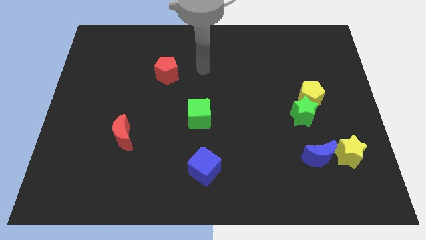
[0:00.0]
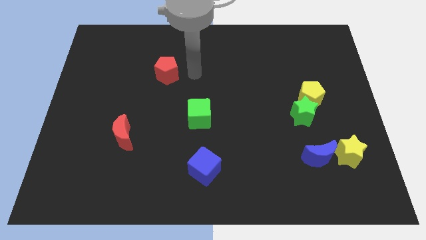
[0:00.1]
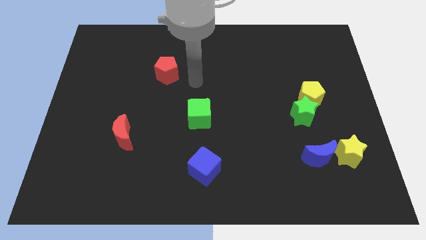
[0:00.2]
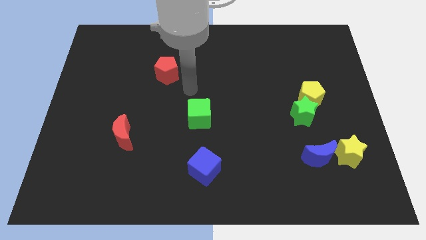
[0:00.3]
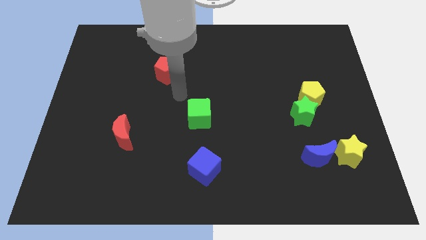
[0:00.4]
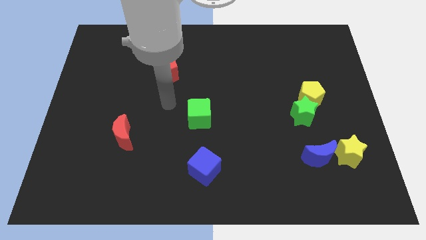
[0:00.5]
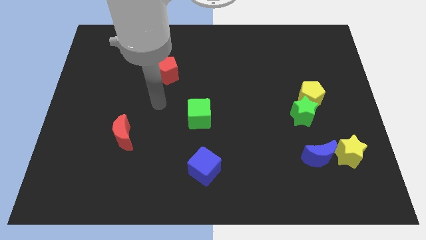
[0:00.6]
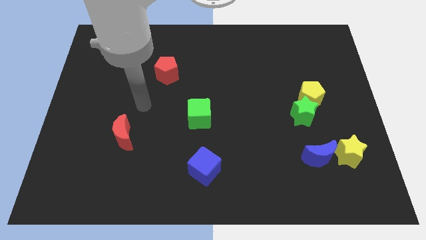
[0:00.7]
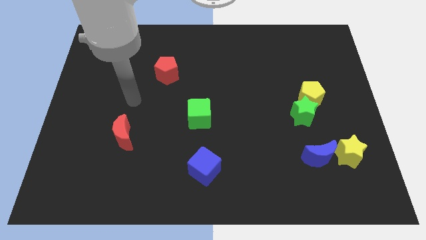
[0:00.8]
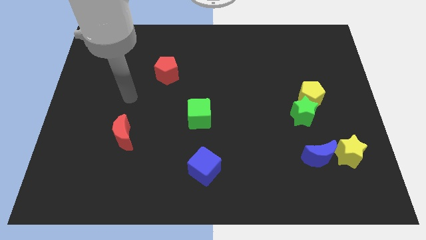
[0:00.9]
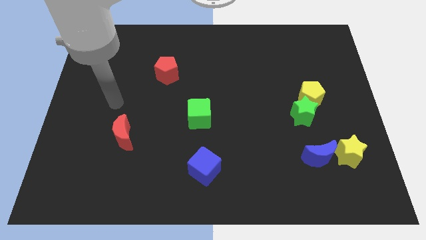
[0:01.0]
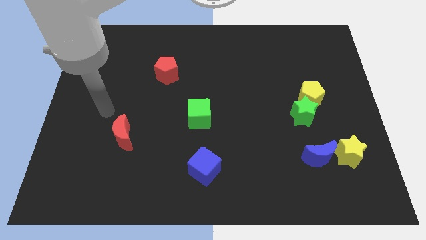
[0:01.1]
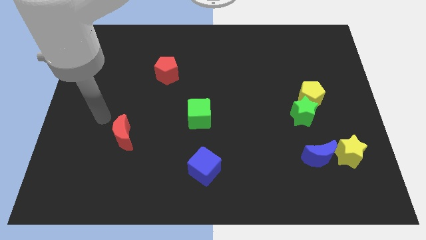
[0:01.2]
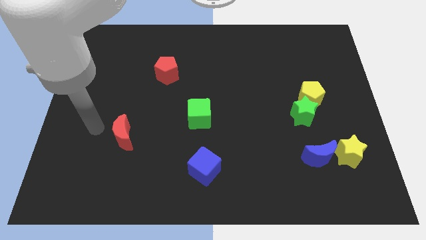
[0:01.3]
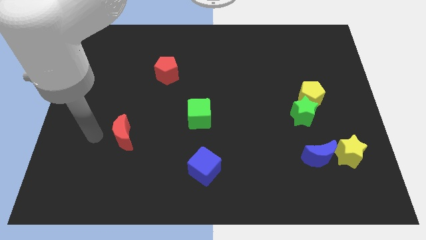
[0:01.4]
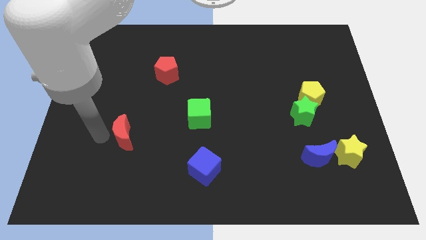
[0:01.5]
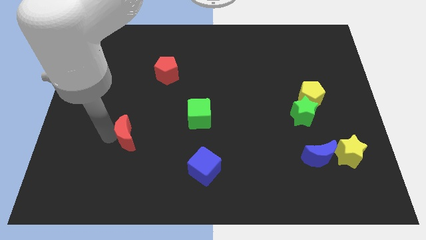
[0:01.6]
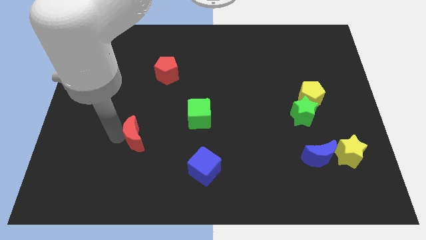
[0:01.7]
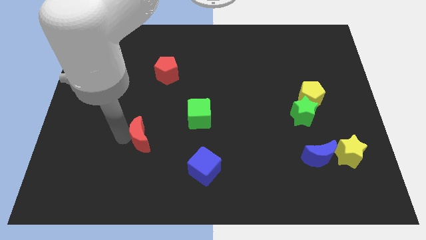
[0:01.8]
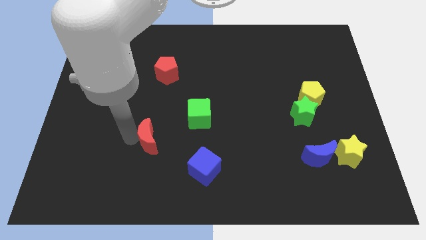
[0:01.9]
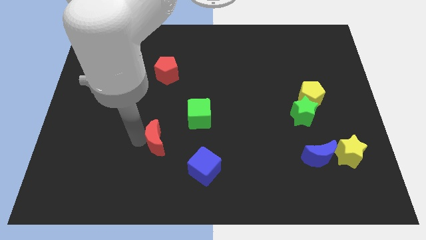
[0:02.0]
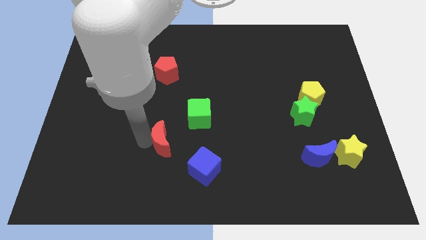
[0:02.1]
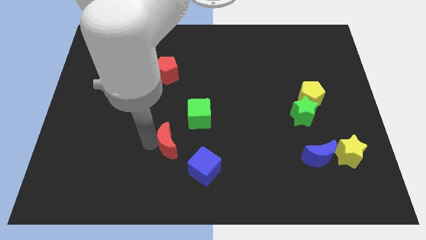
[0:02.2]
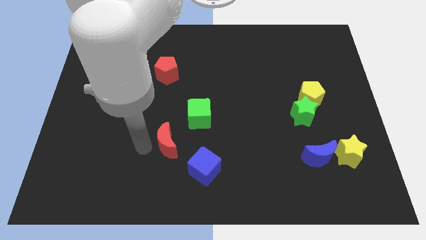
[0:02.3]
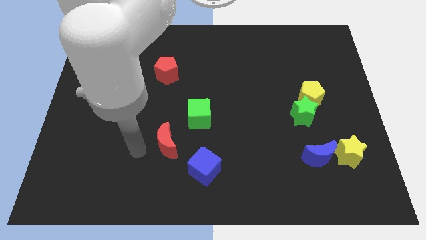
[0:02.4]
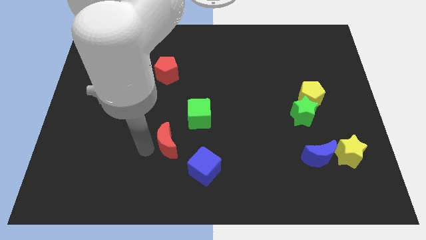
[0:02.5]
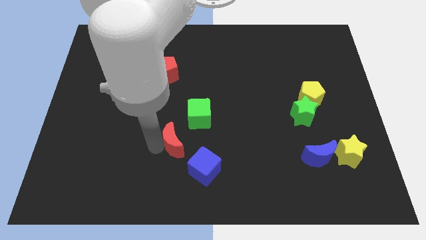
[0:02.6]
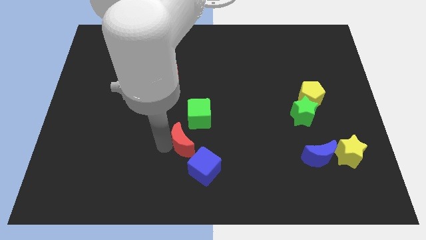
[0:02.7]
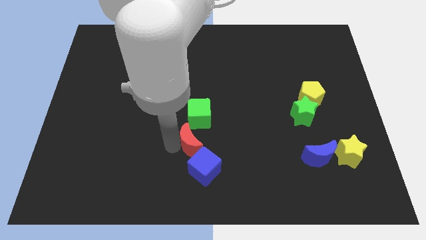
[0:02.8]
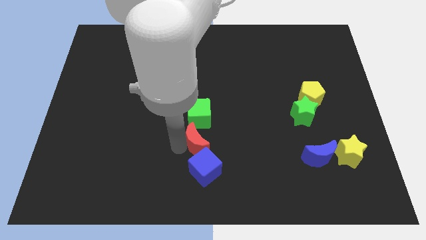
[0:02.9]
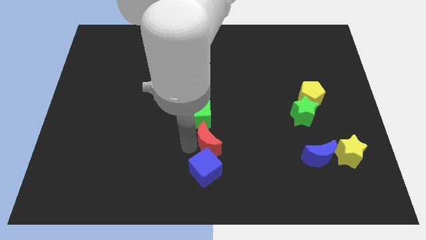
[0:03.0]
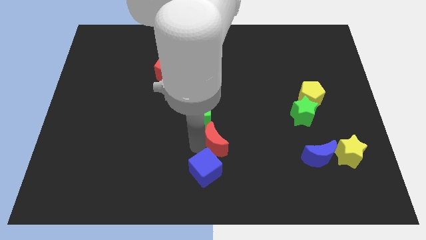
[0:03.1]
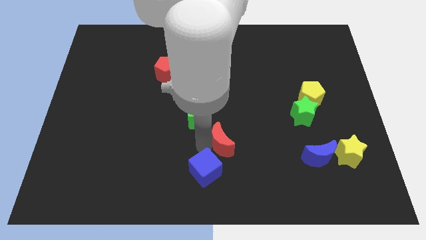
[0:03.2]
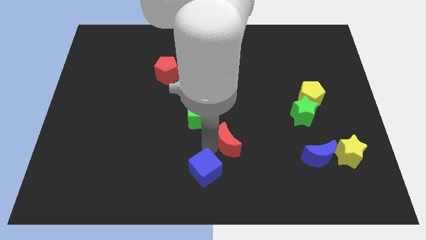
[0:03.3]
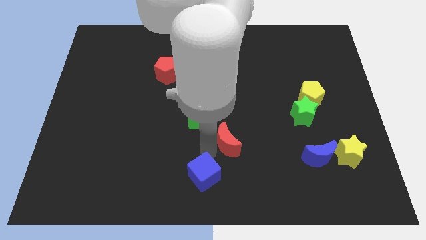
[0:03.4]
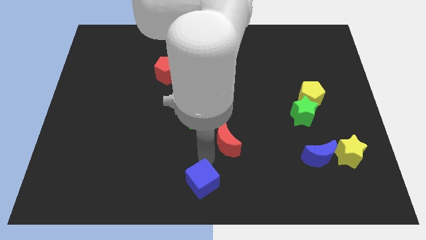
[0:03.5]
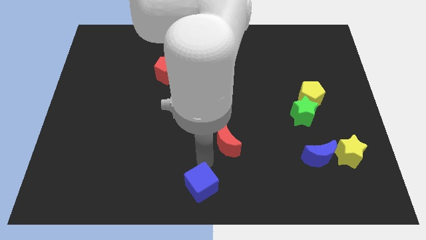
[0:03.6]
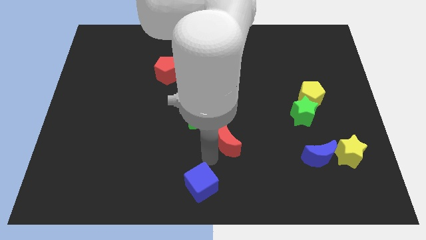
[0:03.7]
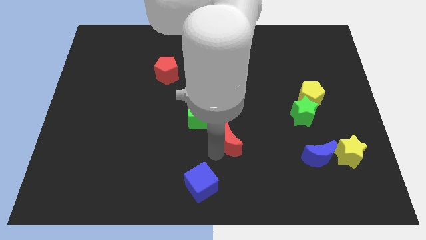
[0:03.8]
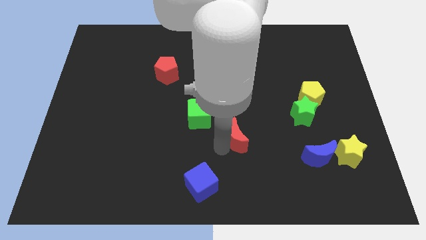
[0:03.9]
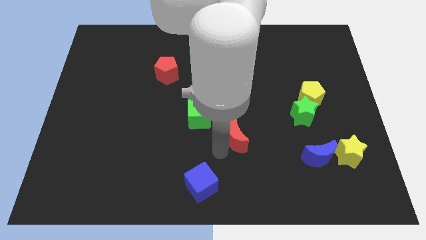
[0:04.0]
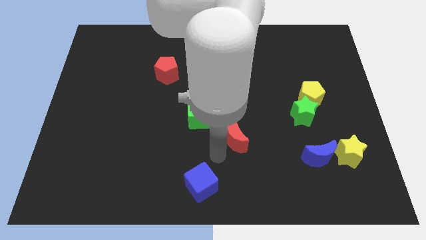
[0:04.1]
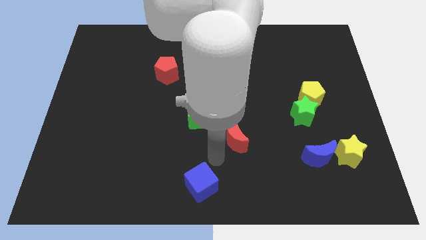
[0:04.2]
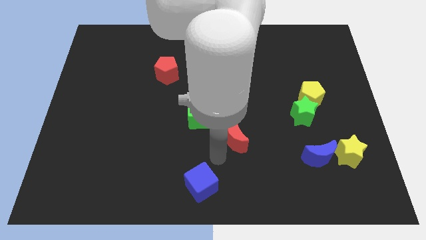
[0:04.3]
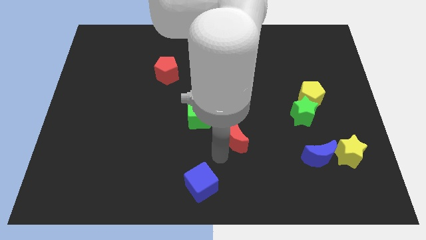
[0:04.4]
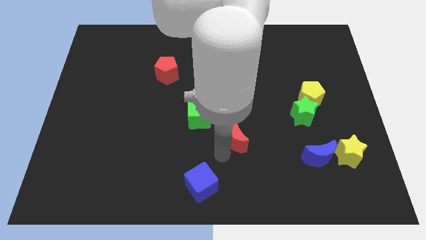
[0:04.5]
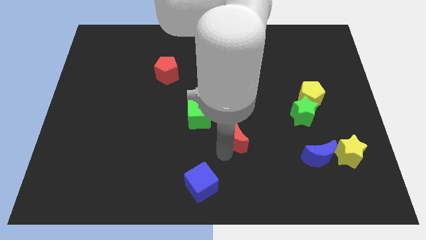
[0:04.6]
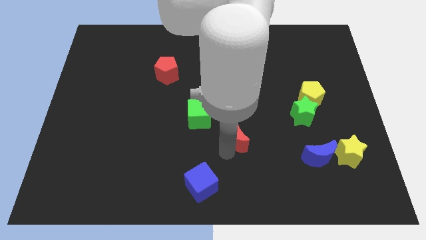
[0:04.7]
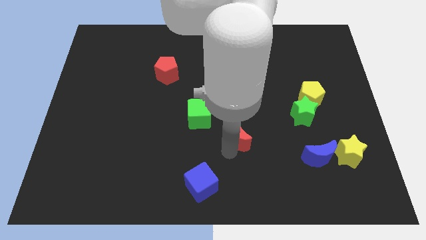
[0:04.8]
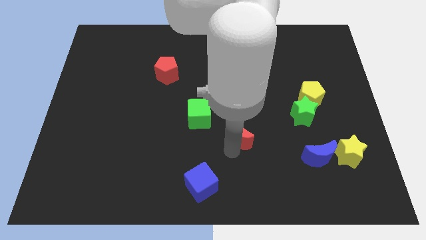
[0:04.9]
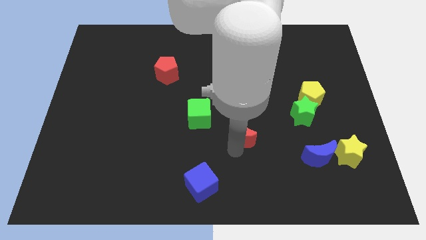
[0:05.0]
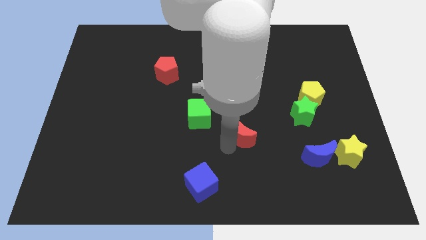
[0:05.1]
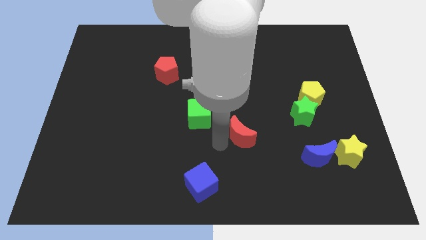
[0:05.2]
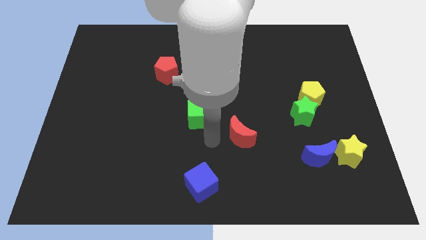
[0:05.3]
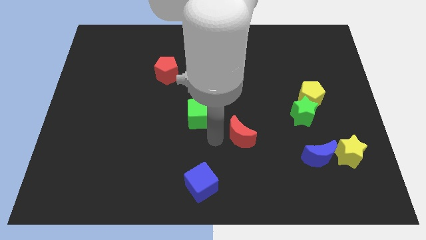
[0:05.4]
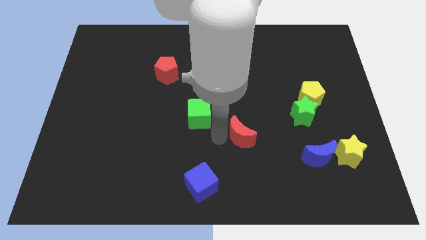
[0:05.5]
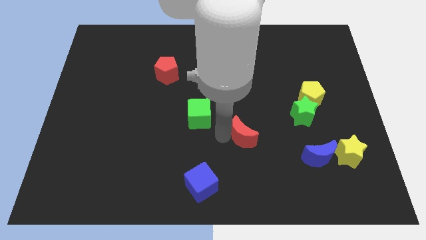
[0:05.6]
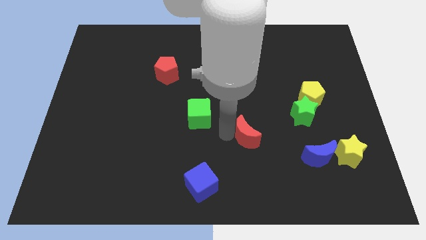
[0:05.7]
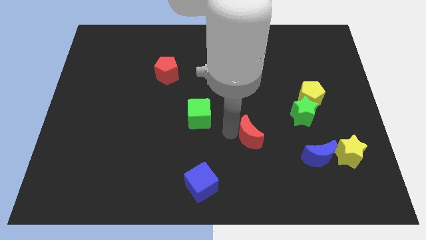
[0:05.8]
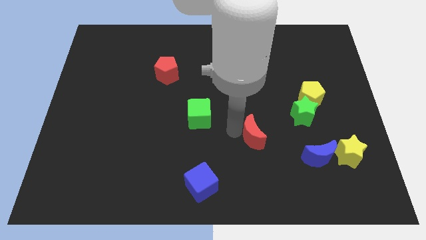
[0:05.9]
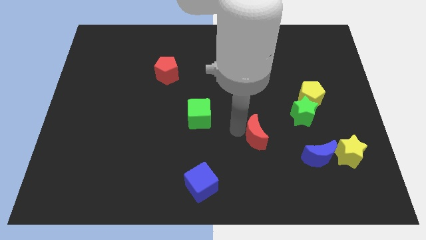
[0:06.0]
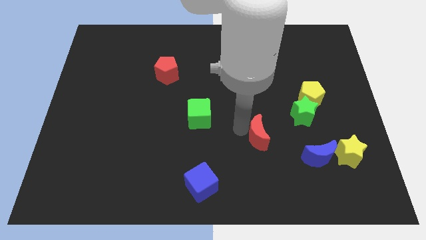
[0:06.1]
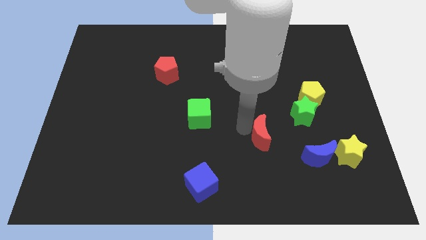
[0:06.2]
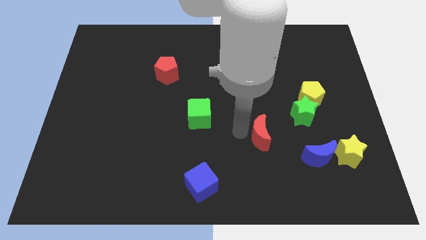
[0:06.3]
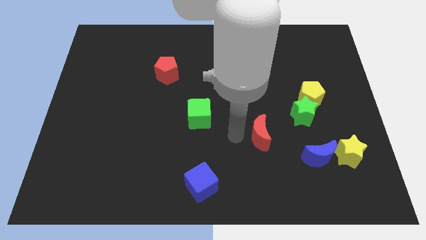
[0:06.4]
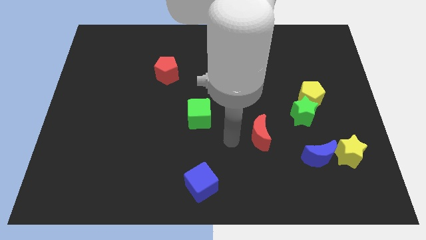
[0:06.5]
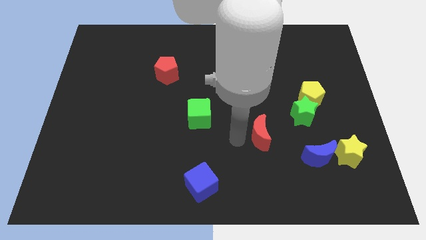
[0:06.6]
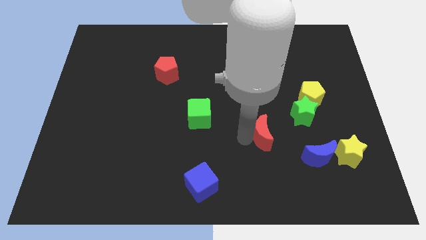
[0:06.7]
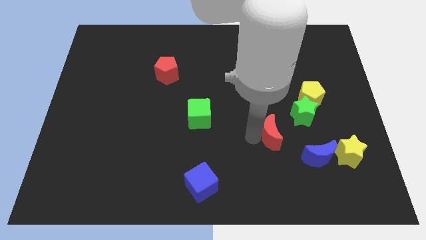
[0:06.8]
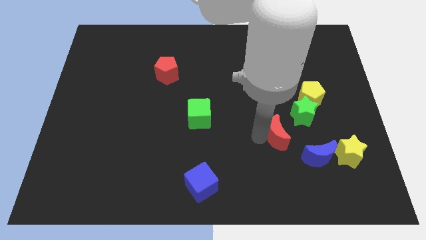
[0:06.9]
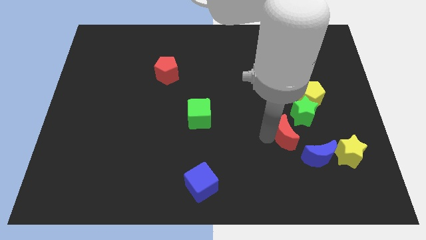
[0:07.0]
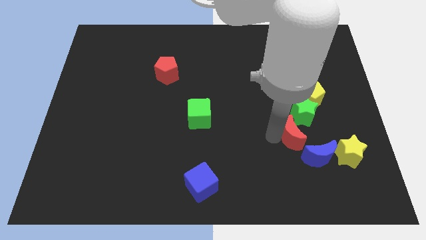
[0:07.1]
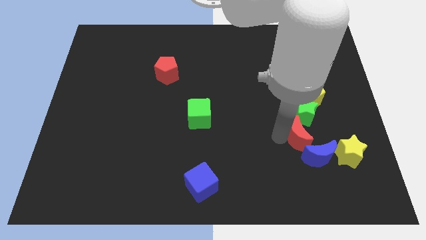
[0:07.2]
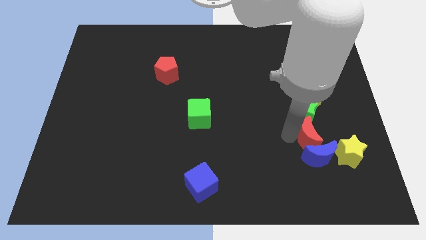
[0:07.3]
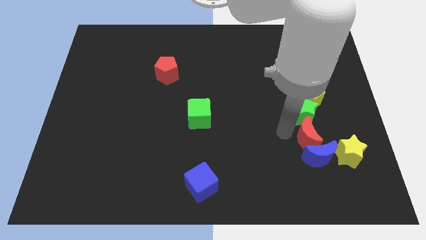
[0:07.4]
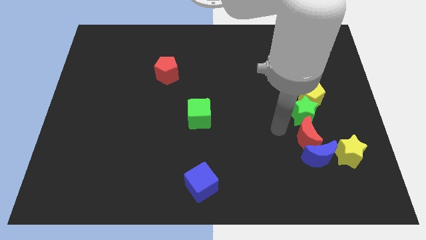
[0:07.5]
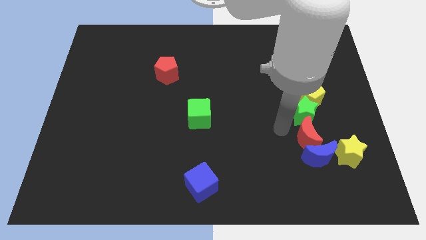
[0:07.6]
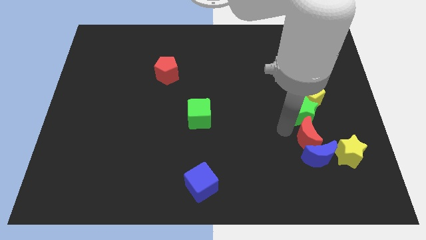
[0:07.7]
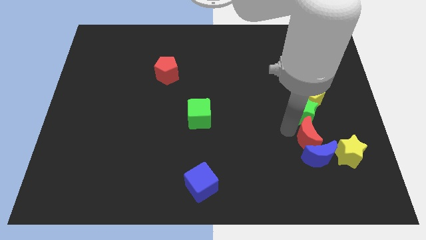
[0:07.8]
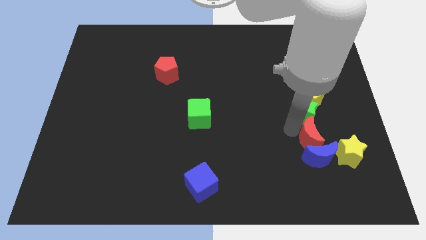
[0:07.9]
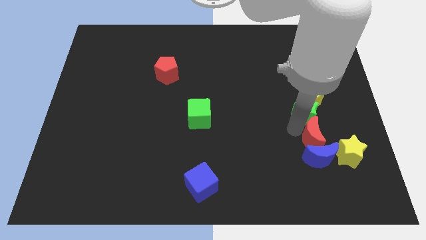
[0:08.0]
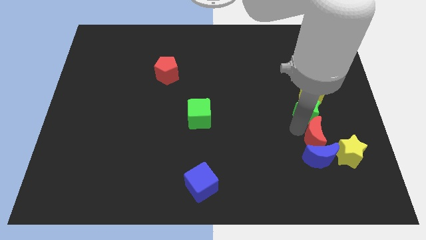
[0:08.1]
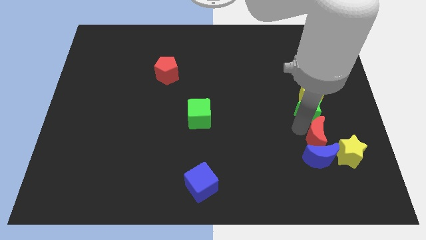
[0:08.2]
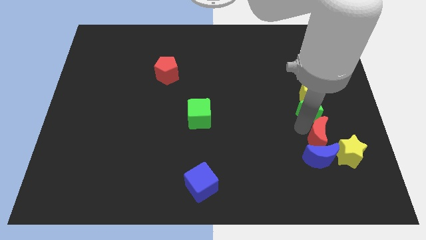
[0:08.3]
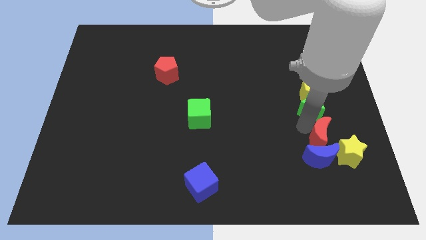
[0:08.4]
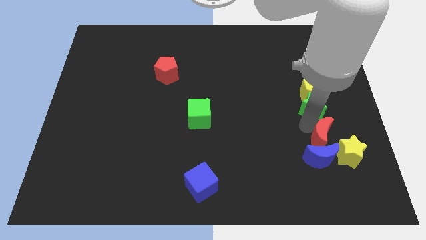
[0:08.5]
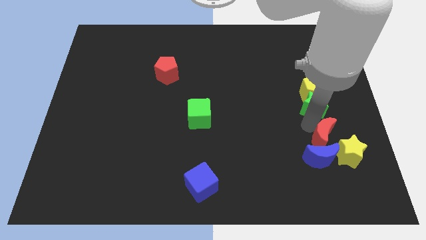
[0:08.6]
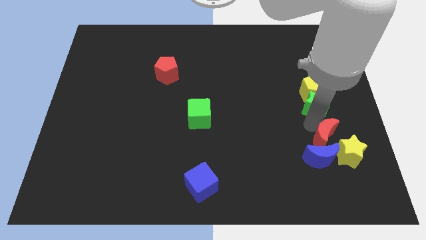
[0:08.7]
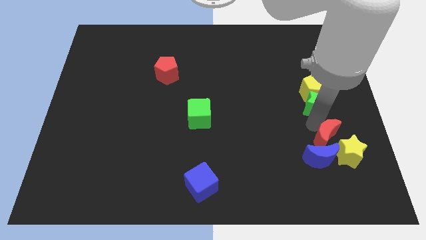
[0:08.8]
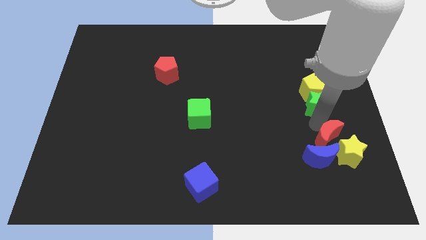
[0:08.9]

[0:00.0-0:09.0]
push the red moon close to the yellow star
